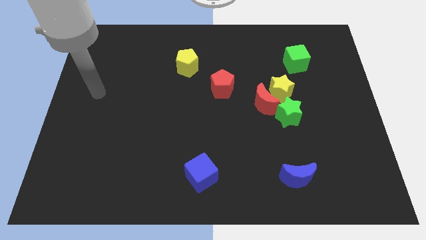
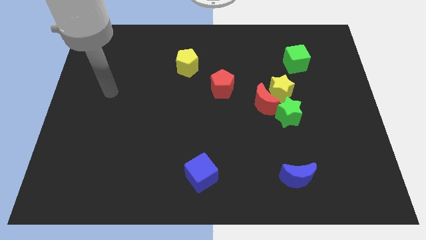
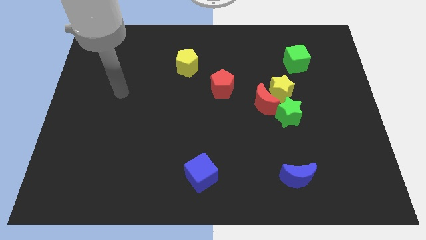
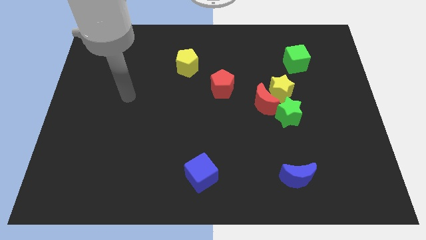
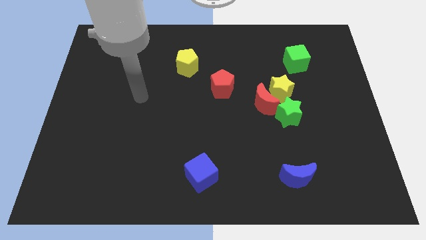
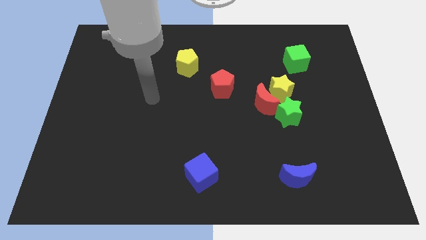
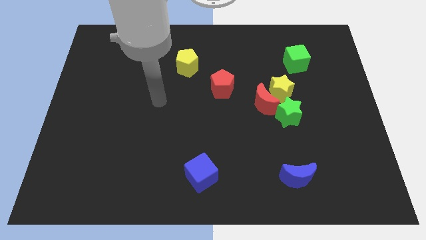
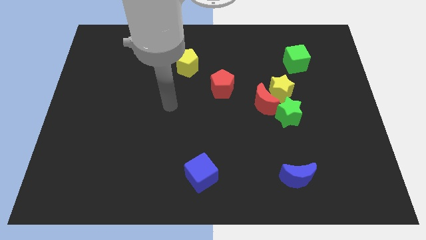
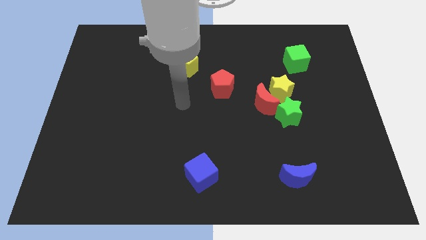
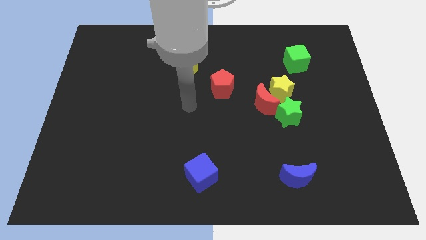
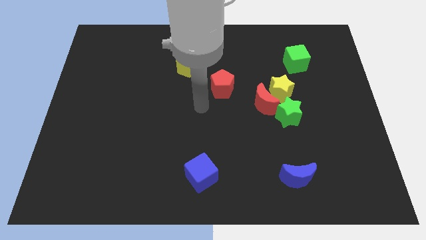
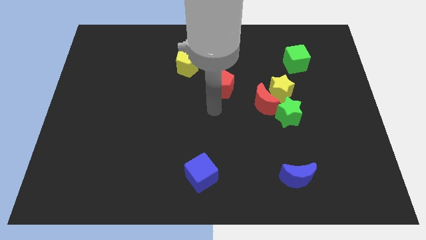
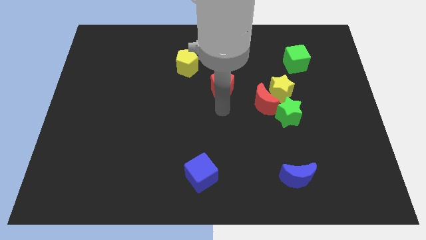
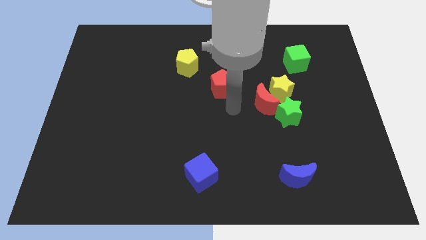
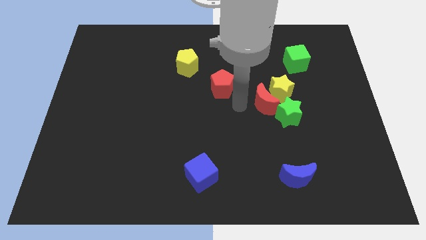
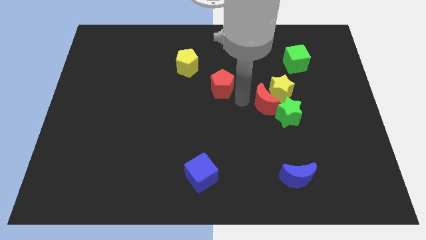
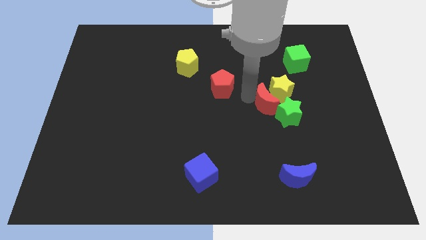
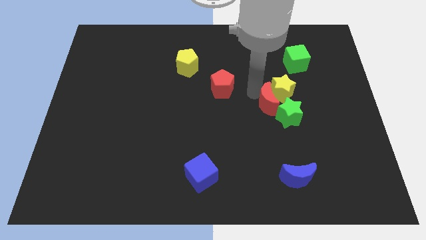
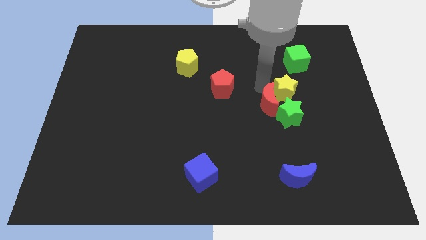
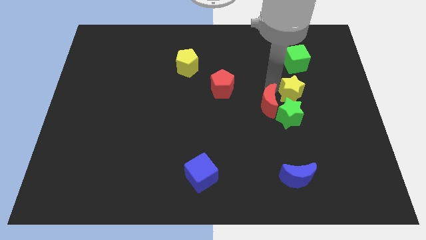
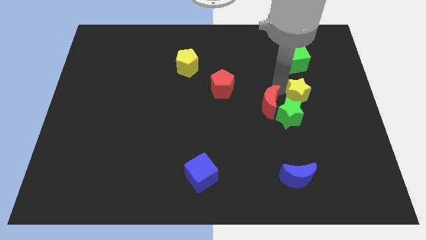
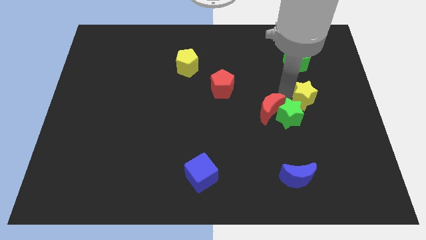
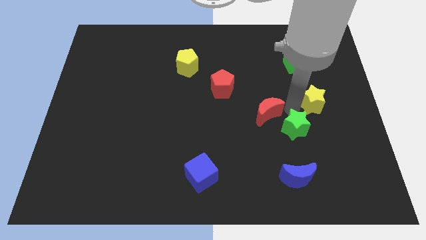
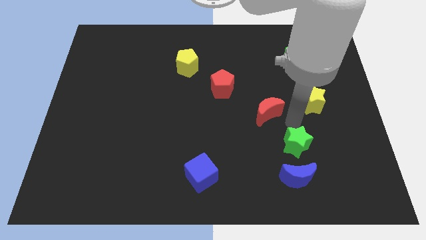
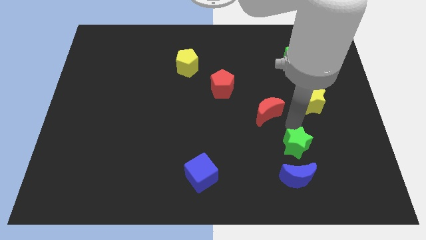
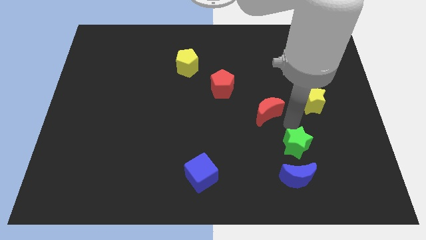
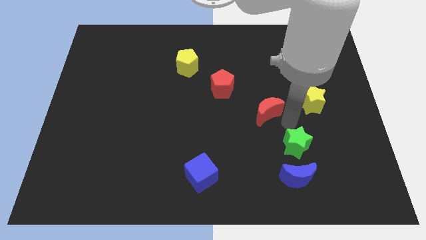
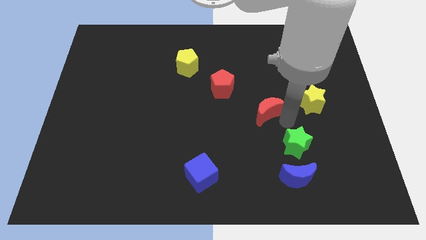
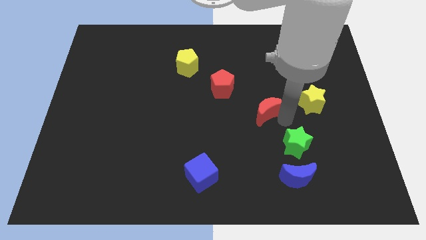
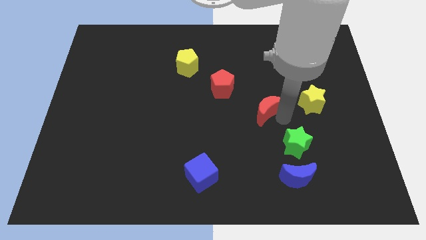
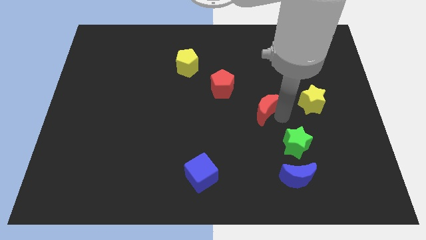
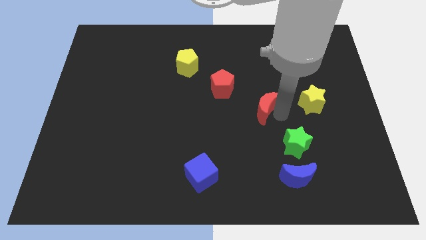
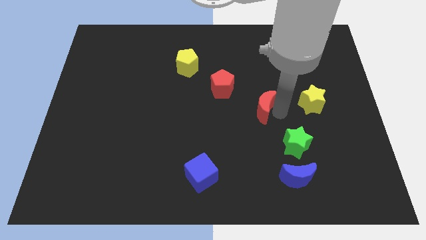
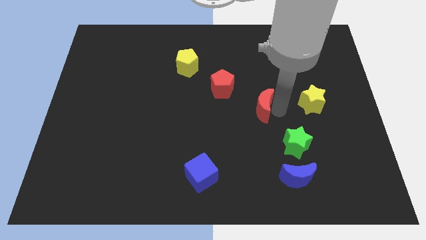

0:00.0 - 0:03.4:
pull the red moon apart from the yellow star and green star

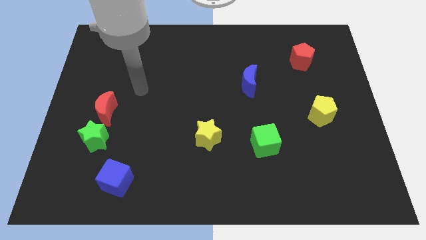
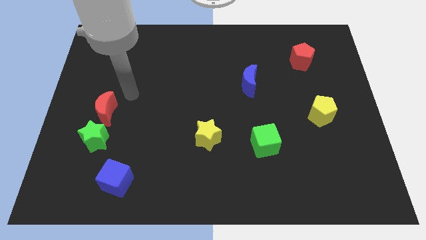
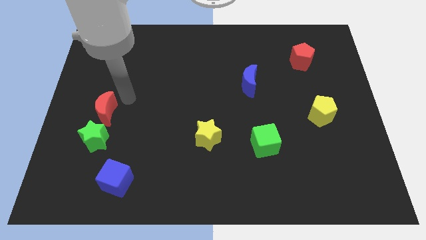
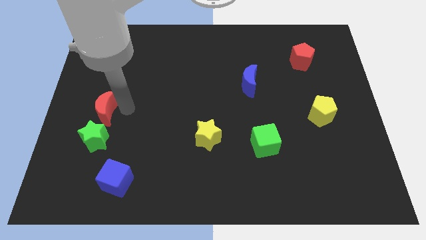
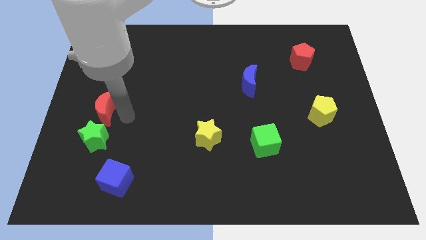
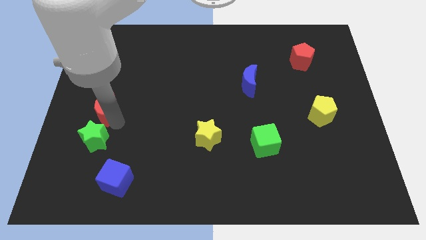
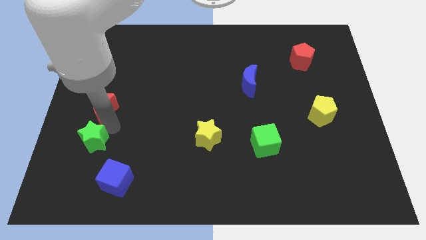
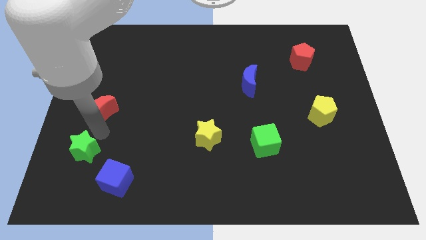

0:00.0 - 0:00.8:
move the red moon away from the green star

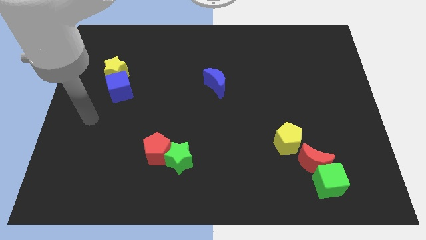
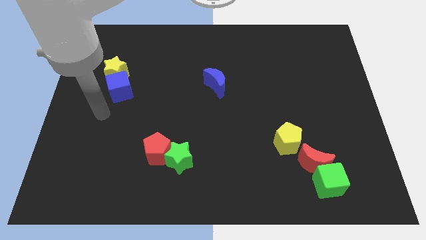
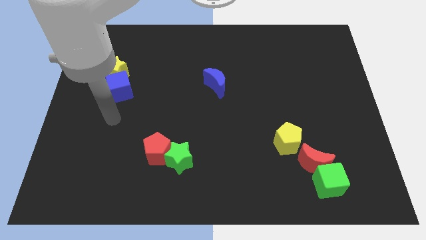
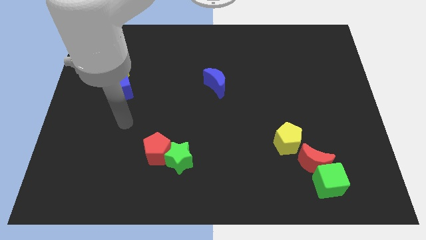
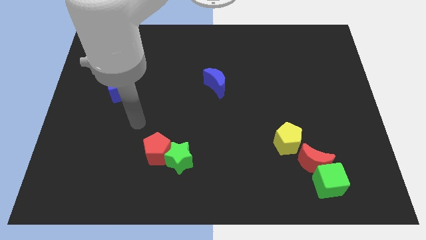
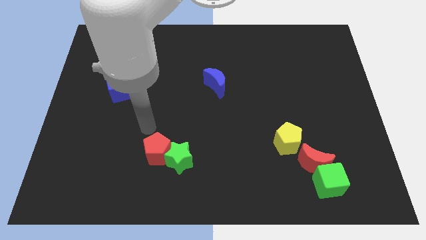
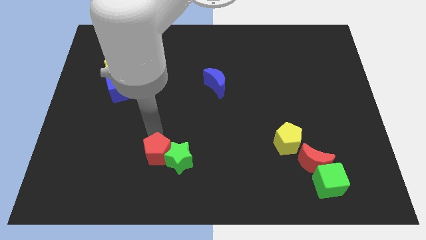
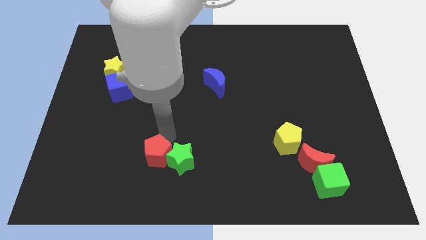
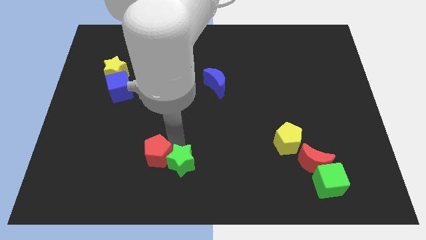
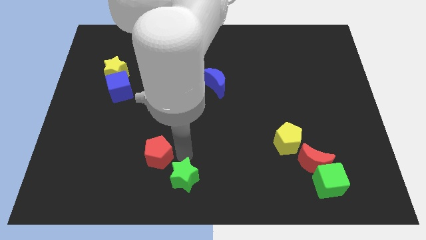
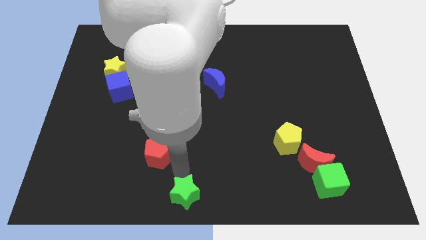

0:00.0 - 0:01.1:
separate the red pentagon from the green star

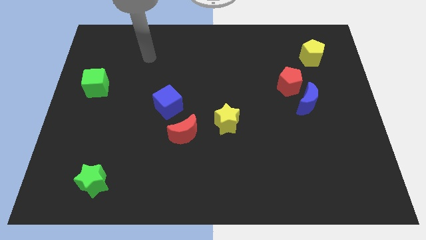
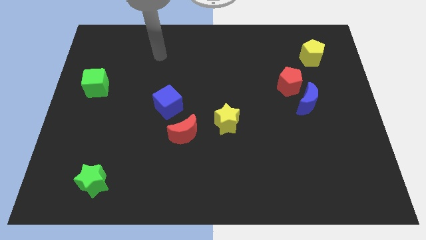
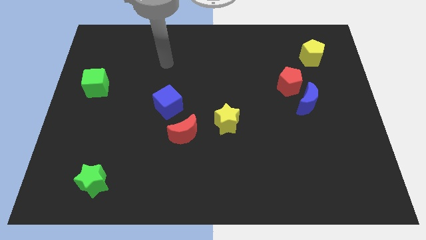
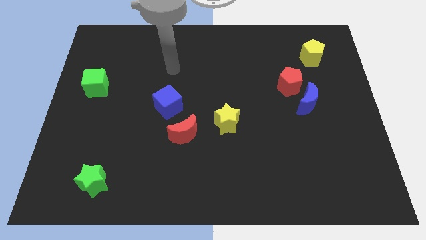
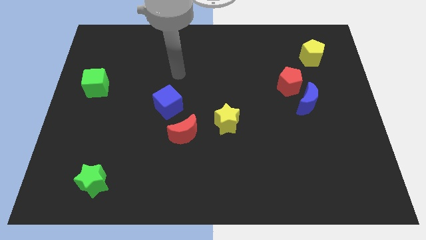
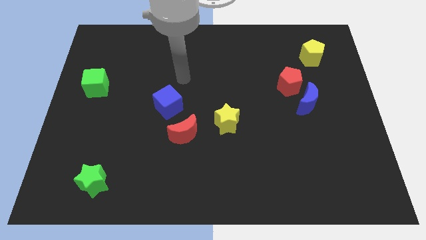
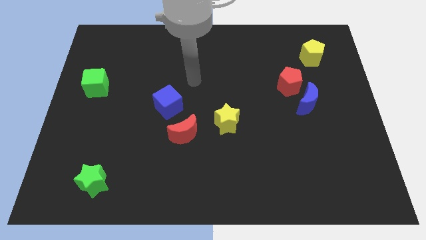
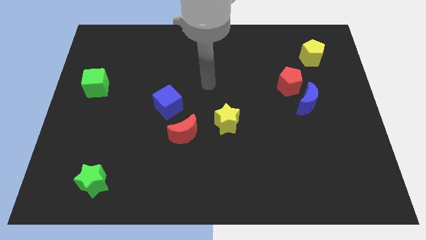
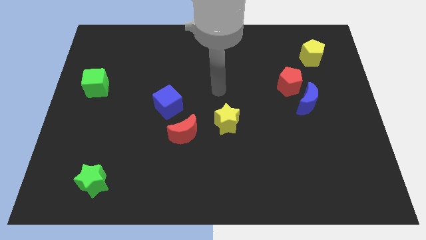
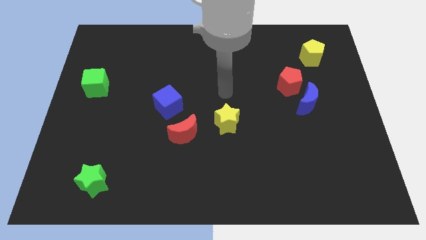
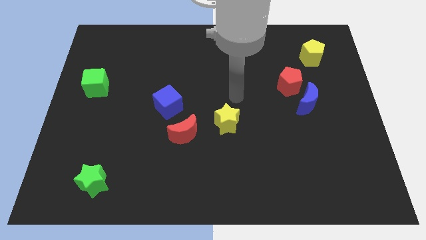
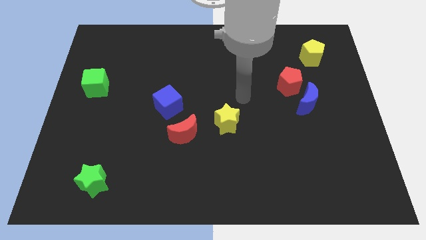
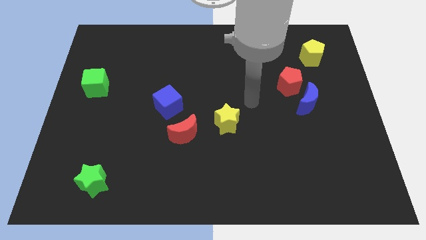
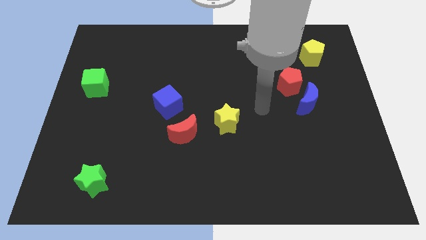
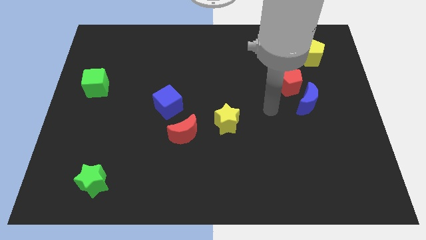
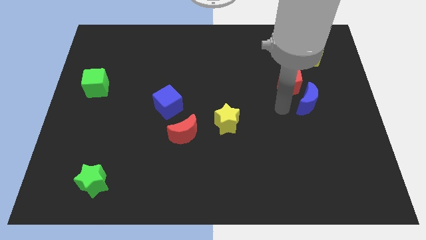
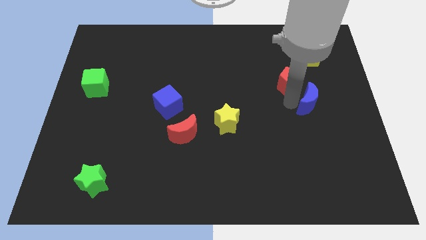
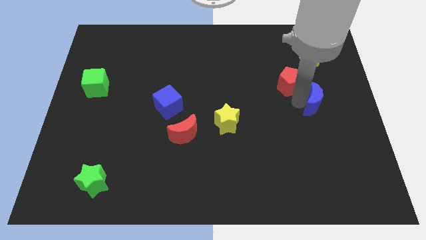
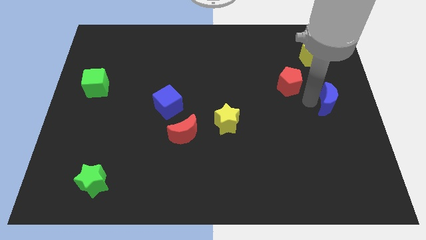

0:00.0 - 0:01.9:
move the red pentagon away from the blue moon

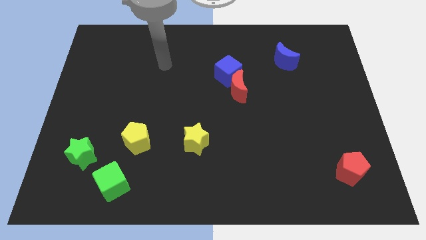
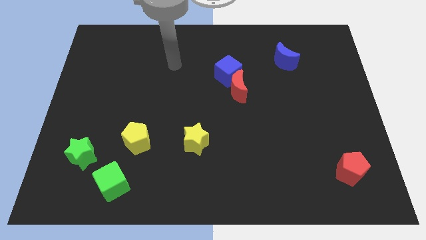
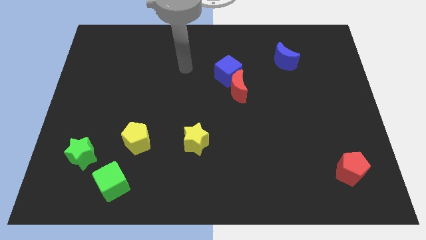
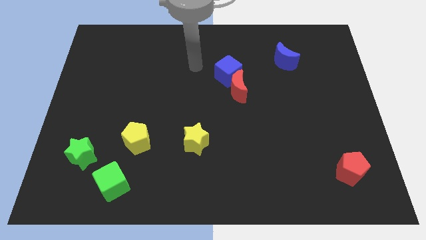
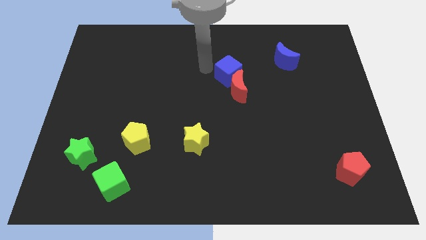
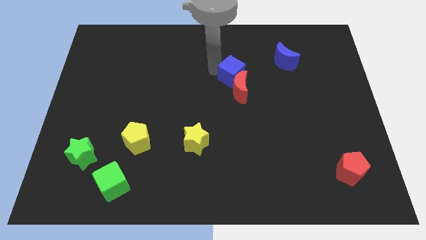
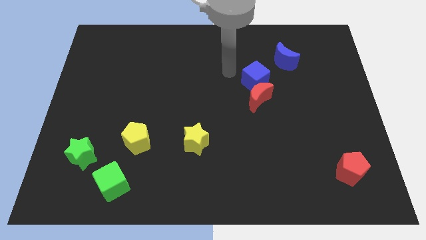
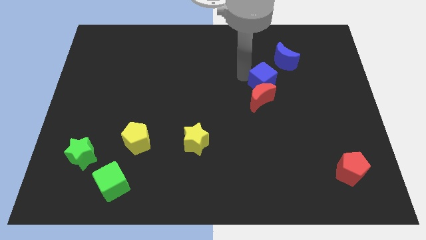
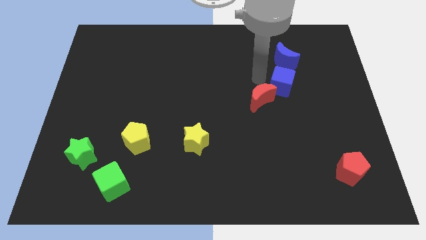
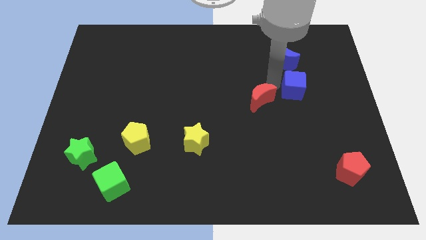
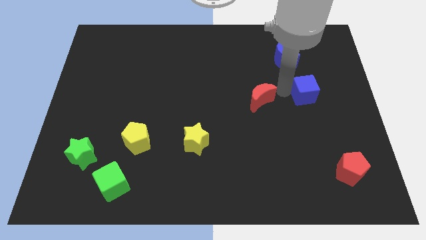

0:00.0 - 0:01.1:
pull the red moon apart from the blue cube

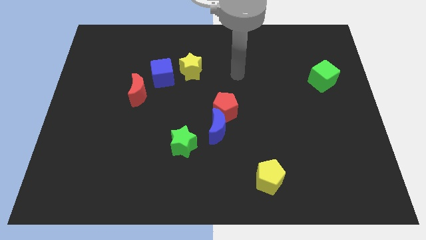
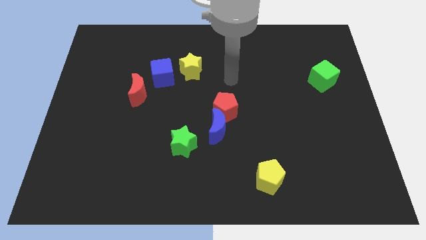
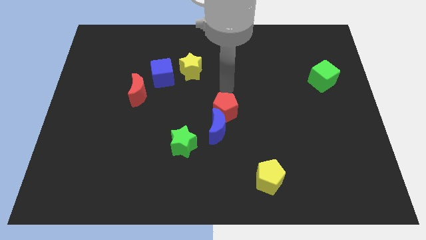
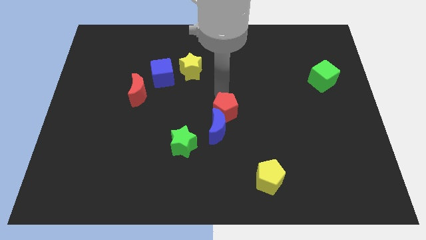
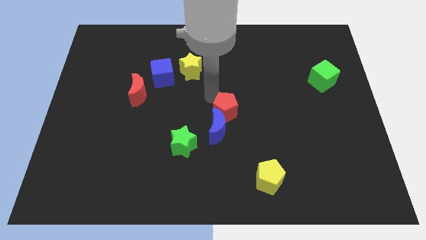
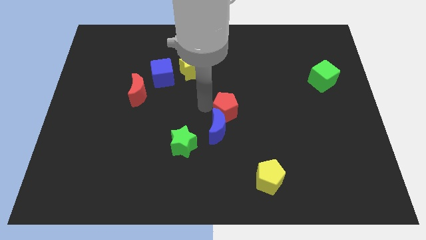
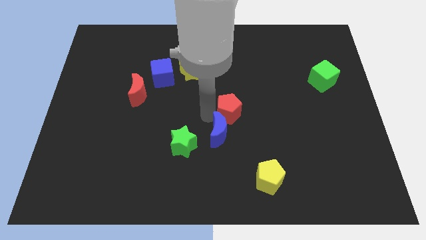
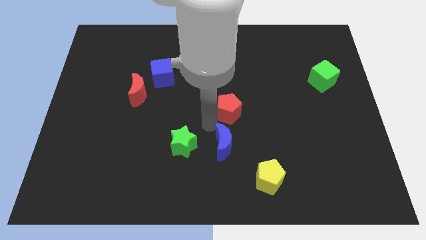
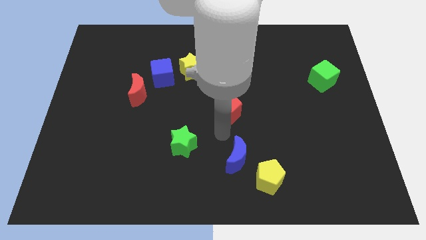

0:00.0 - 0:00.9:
separate the red pentagon from the blue moon
